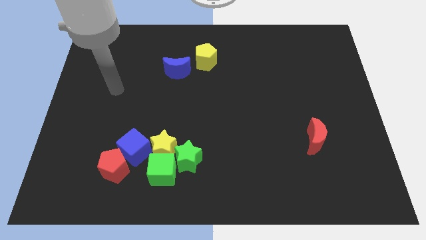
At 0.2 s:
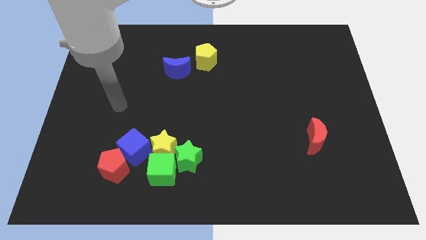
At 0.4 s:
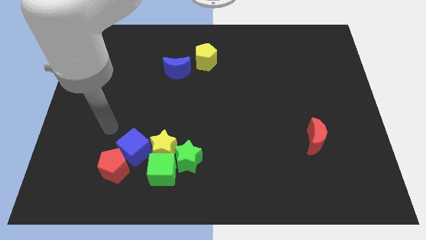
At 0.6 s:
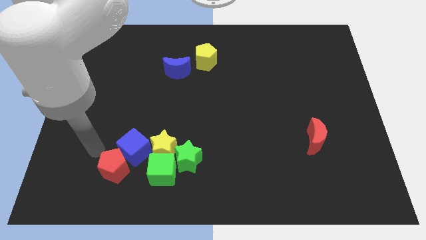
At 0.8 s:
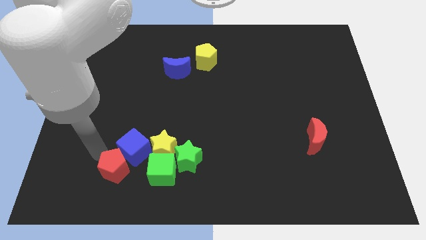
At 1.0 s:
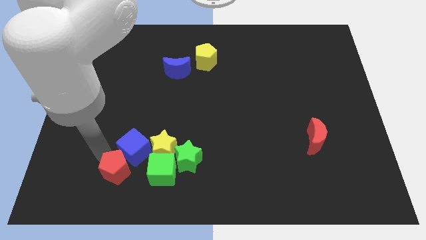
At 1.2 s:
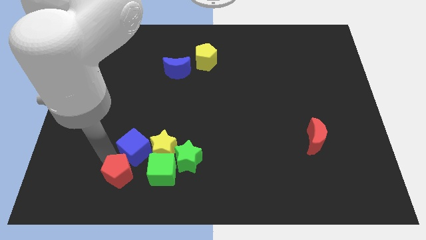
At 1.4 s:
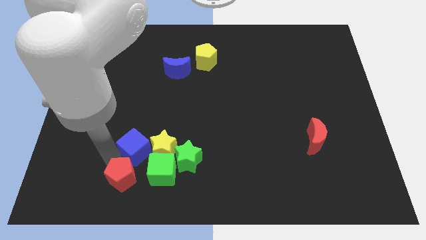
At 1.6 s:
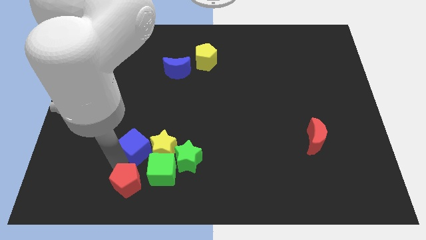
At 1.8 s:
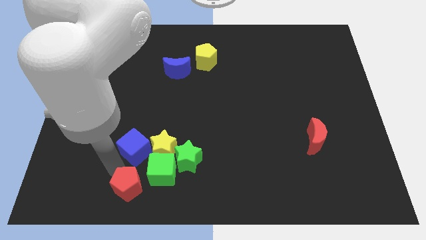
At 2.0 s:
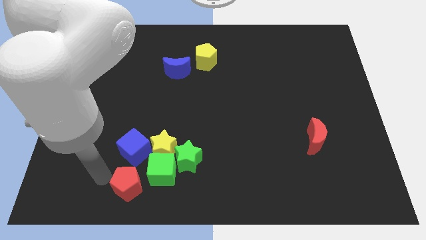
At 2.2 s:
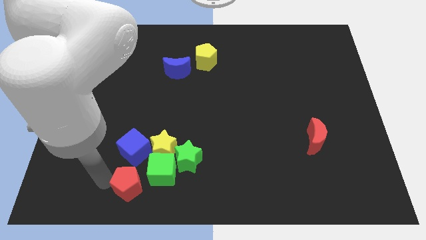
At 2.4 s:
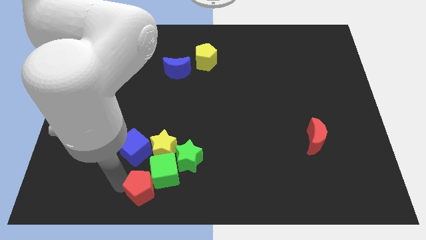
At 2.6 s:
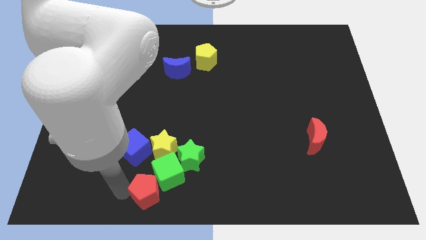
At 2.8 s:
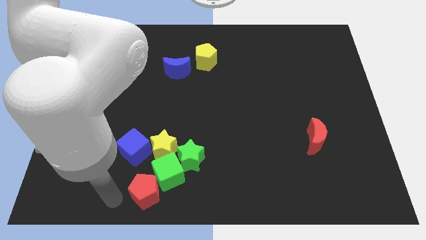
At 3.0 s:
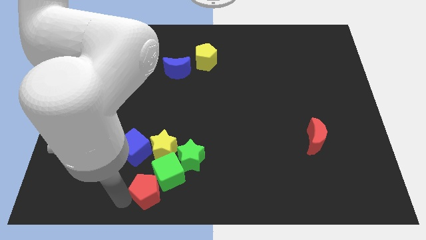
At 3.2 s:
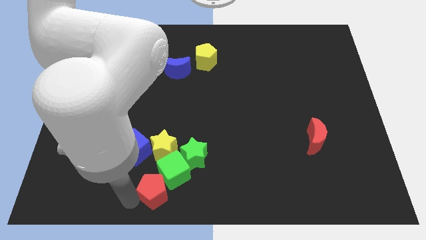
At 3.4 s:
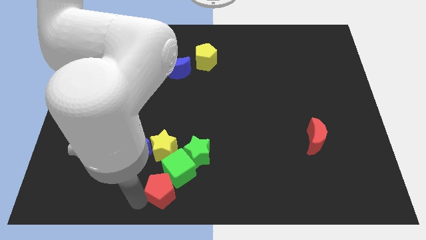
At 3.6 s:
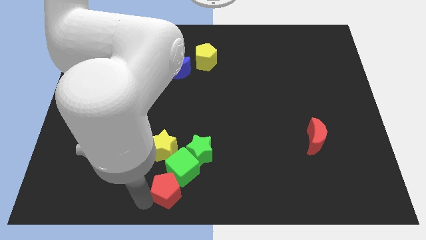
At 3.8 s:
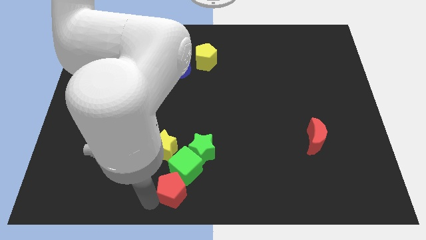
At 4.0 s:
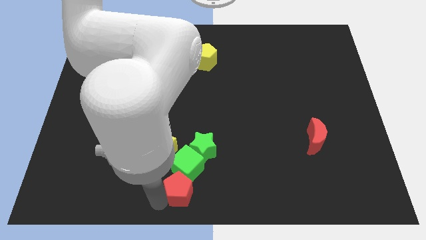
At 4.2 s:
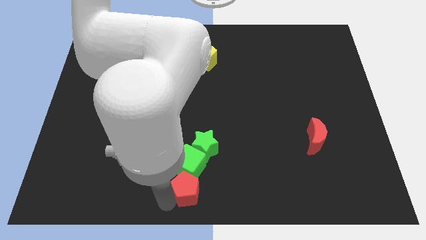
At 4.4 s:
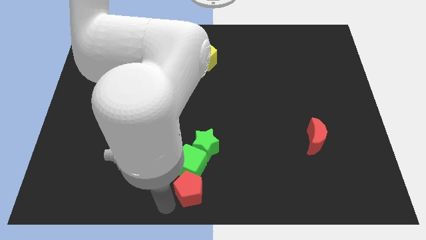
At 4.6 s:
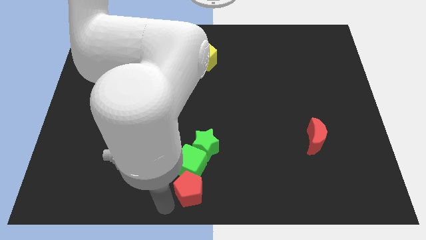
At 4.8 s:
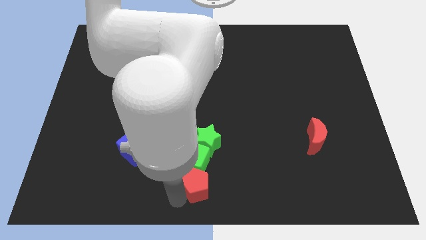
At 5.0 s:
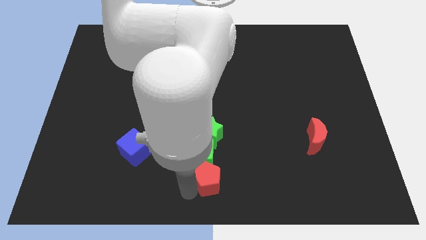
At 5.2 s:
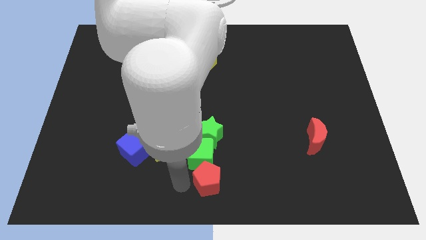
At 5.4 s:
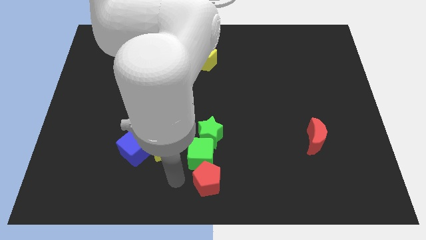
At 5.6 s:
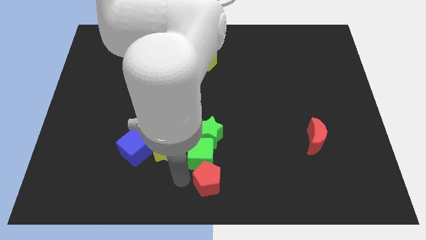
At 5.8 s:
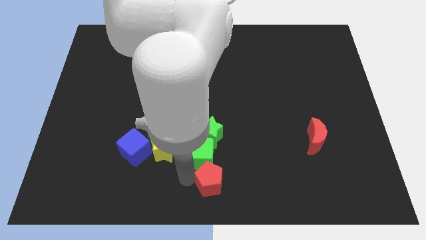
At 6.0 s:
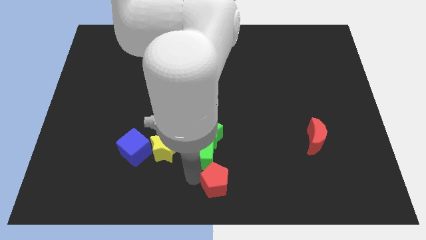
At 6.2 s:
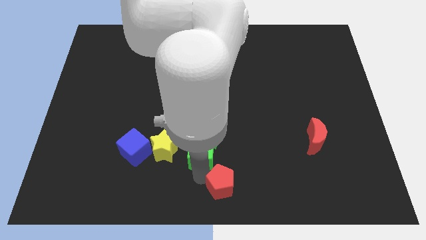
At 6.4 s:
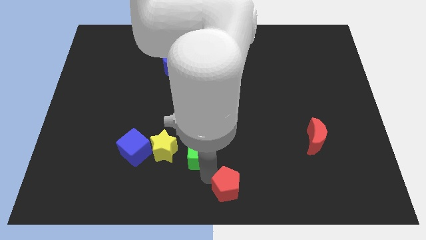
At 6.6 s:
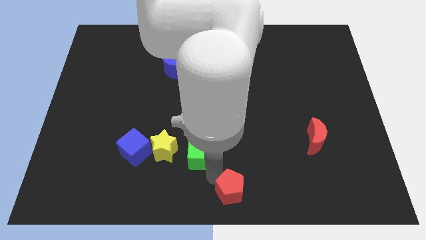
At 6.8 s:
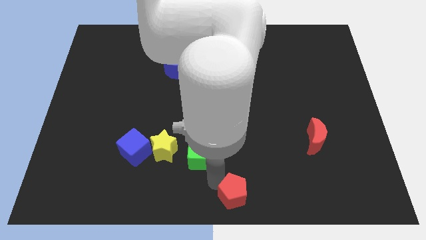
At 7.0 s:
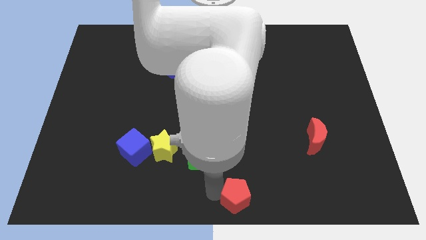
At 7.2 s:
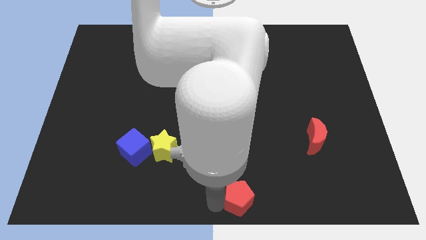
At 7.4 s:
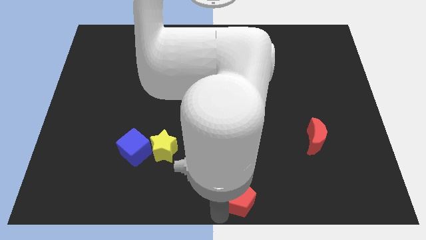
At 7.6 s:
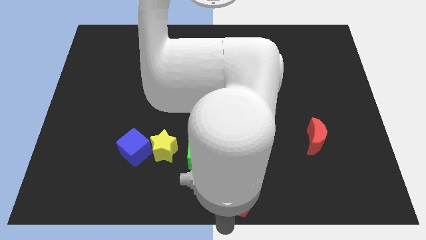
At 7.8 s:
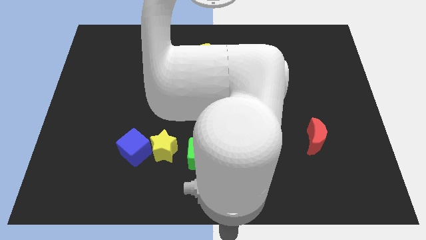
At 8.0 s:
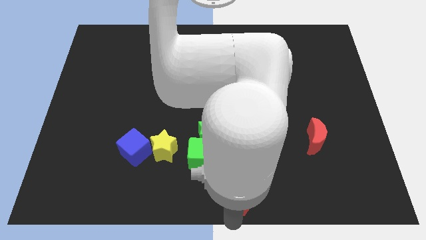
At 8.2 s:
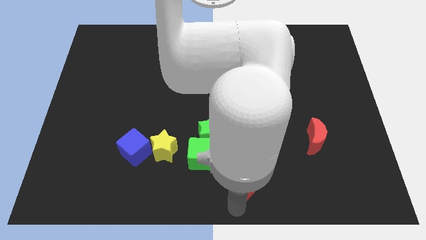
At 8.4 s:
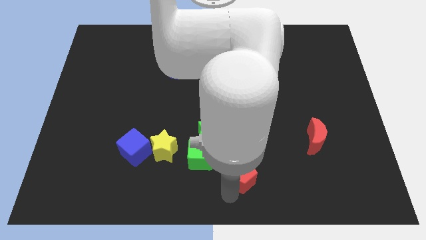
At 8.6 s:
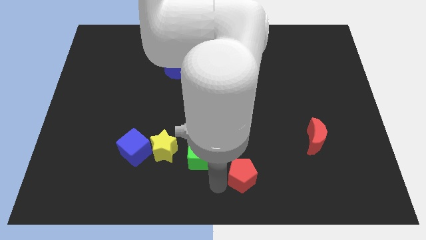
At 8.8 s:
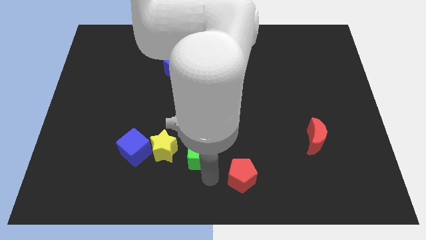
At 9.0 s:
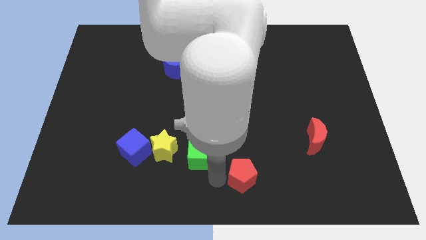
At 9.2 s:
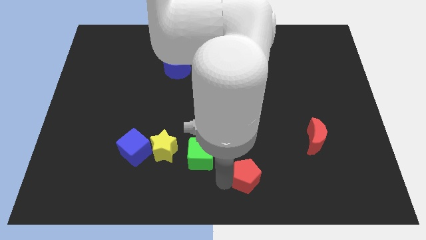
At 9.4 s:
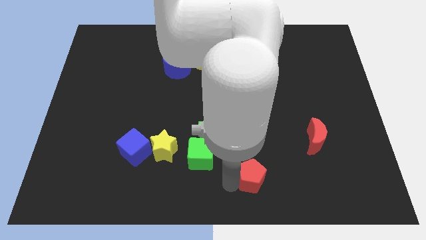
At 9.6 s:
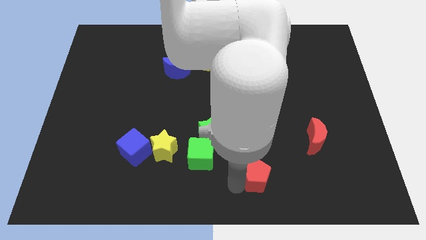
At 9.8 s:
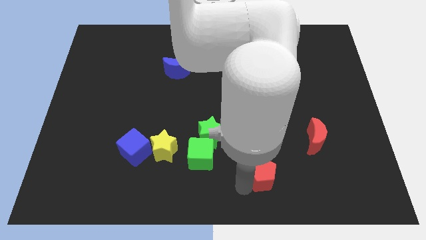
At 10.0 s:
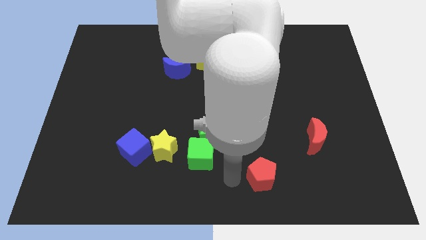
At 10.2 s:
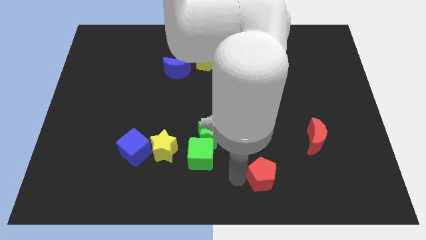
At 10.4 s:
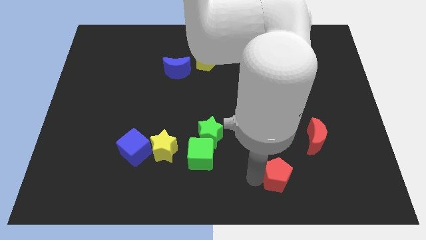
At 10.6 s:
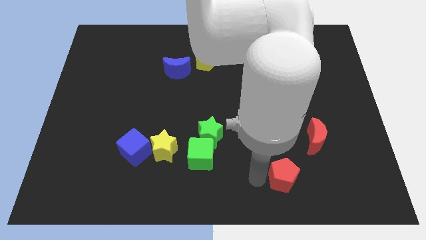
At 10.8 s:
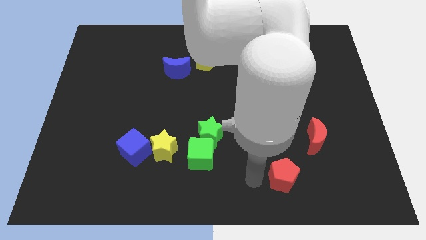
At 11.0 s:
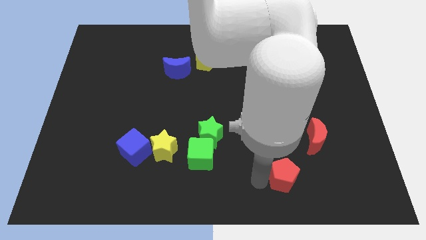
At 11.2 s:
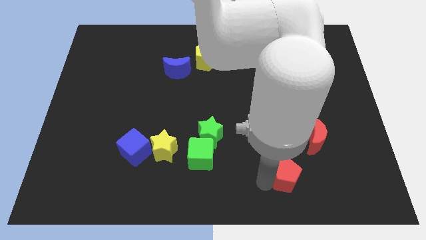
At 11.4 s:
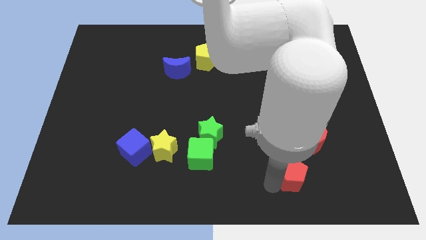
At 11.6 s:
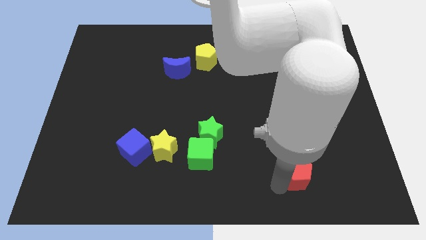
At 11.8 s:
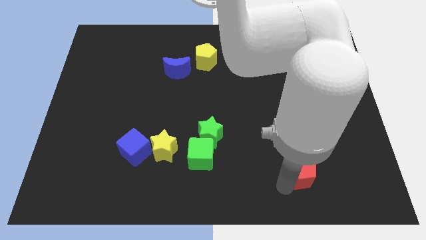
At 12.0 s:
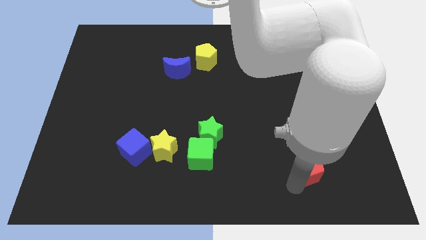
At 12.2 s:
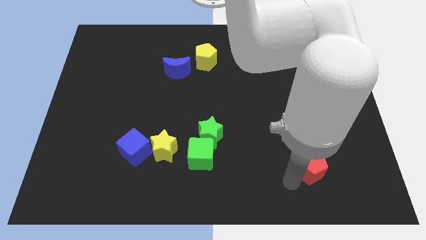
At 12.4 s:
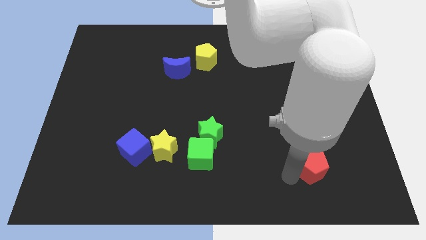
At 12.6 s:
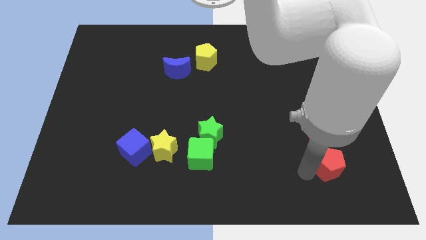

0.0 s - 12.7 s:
slide the red pentagon to the bottom right of the red moon
